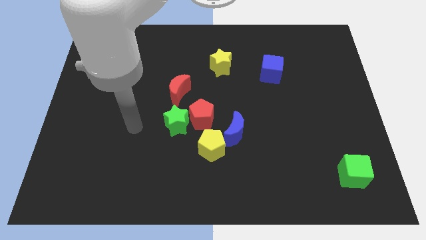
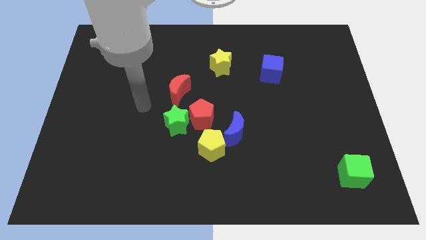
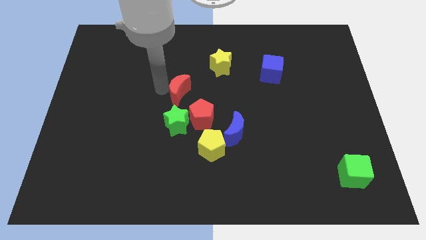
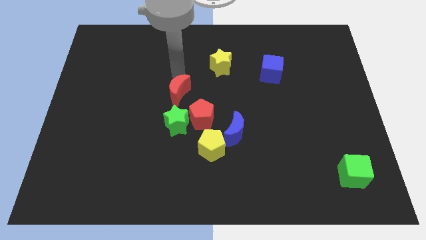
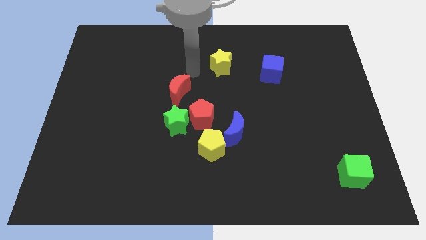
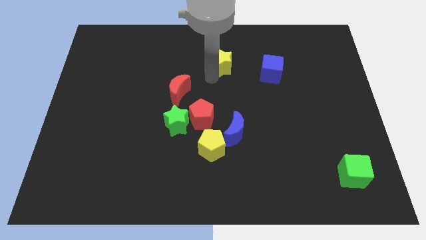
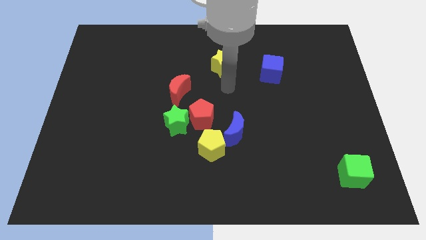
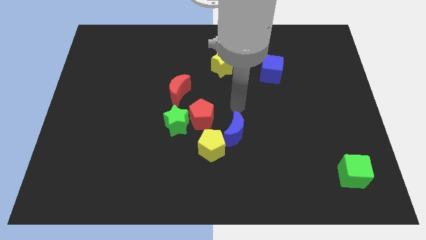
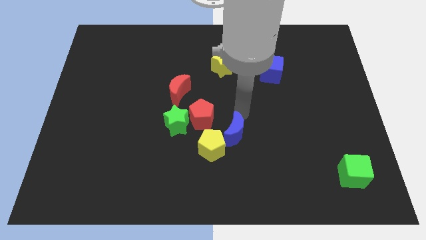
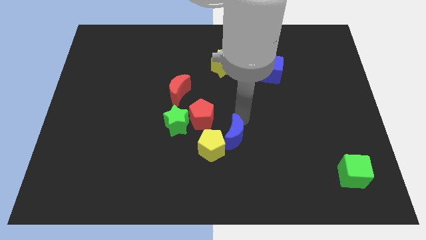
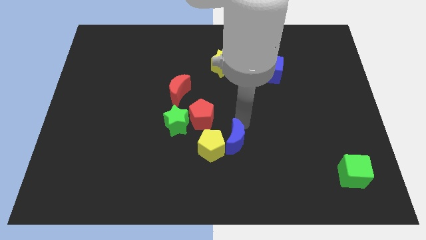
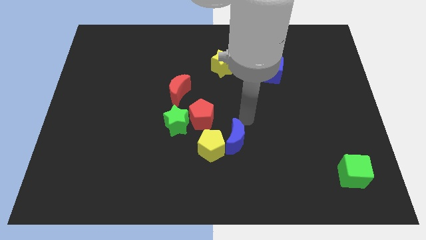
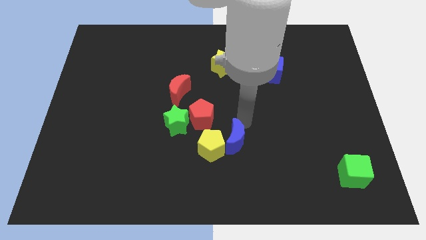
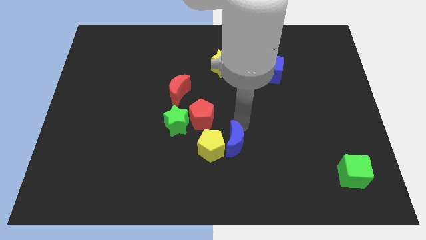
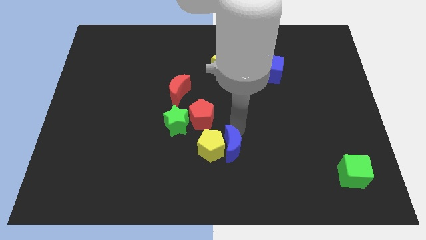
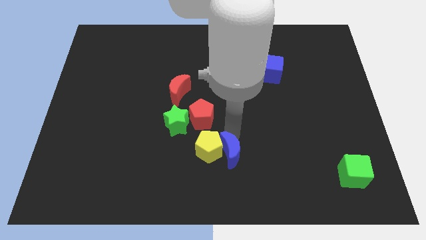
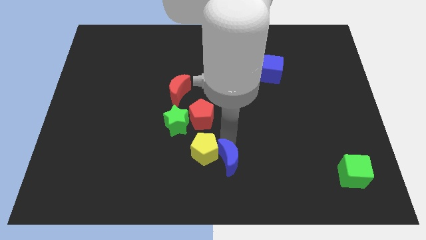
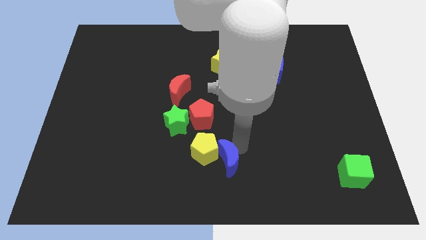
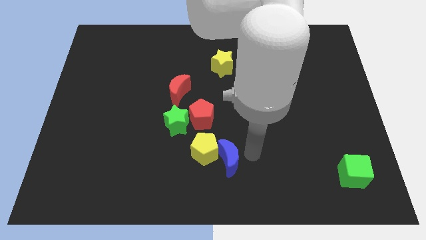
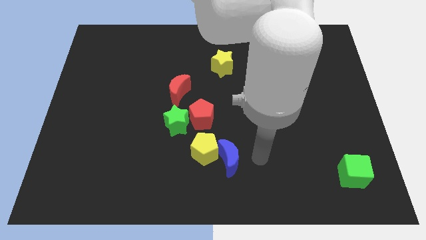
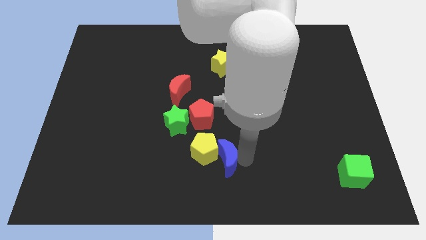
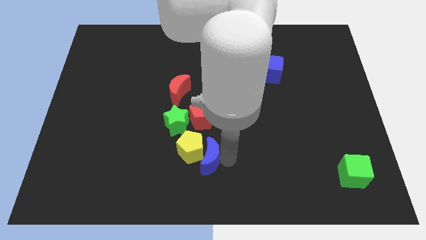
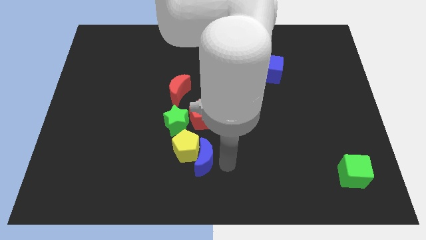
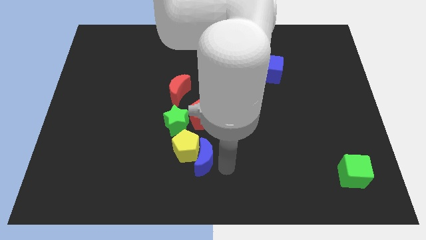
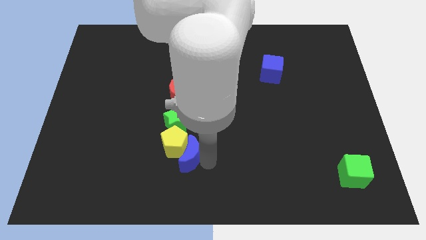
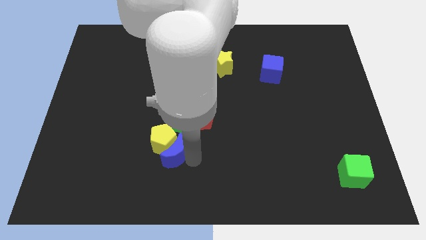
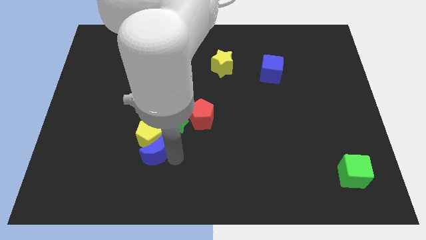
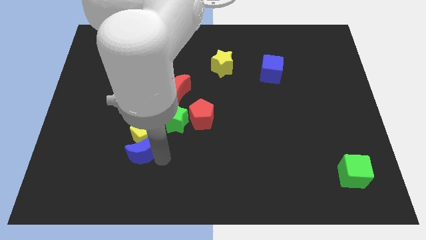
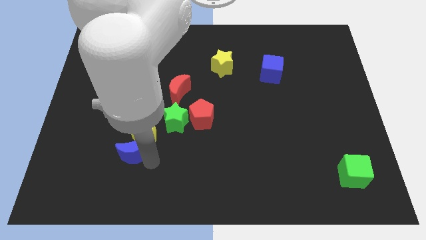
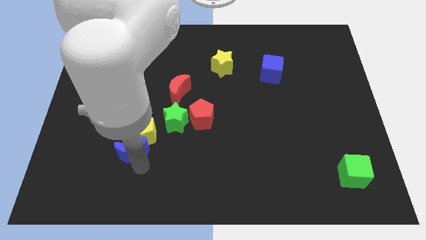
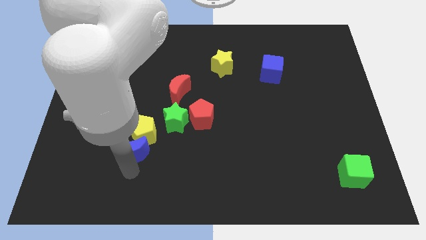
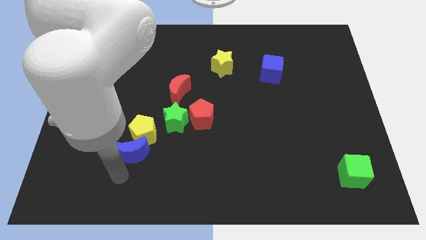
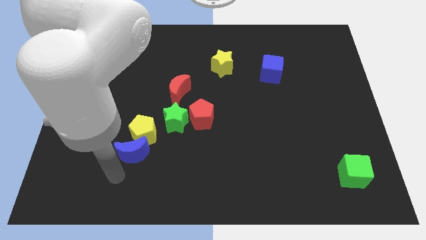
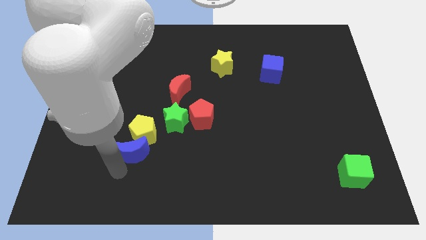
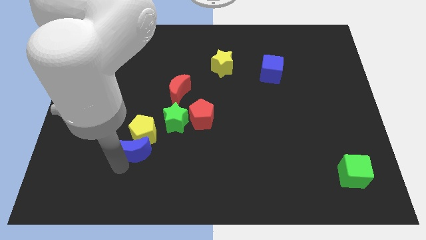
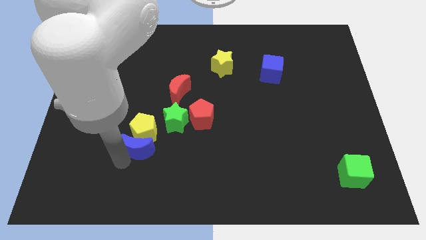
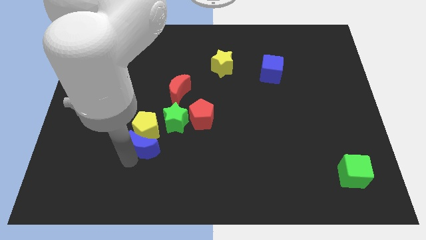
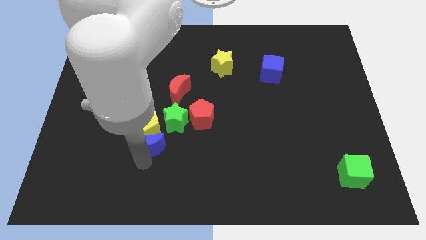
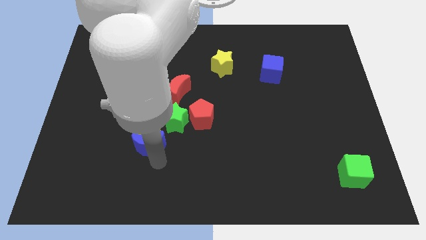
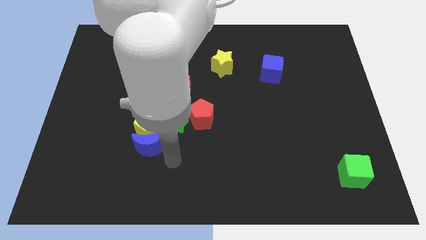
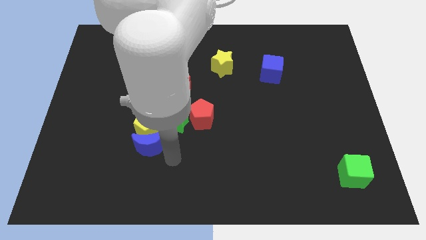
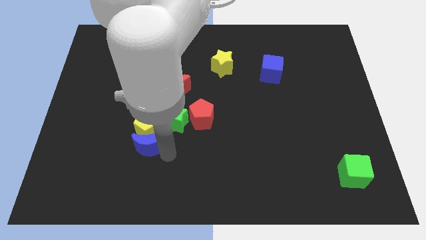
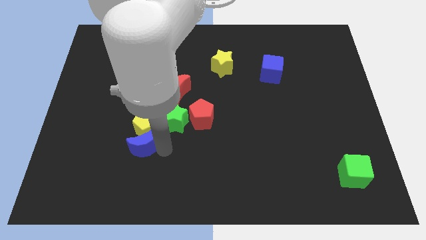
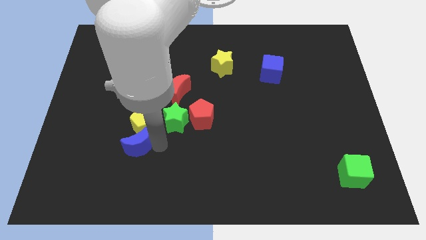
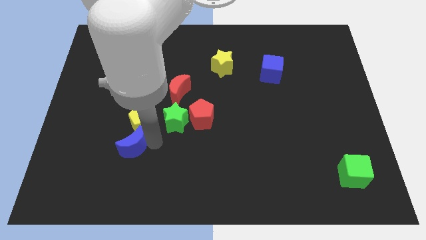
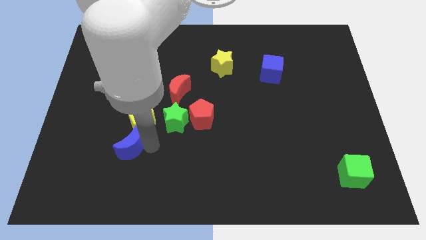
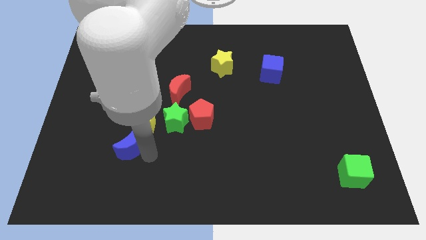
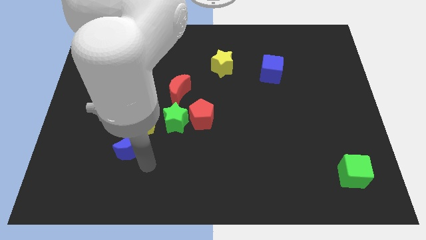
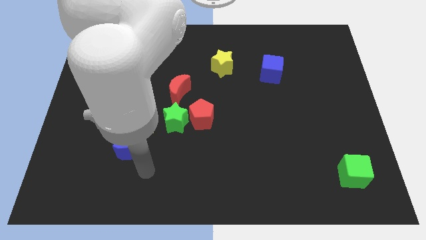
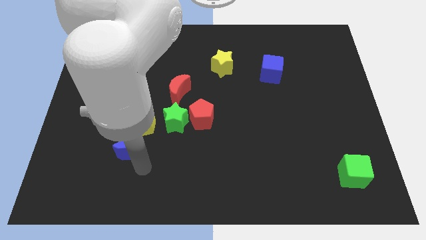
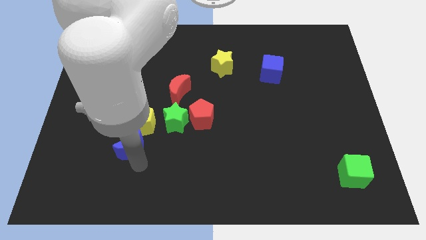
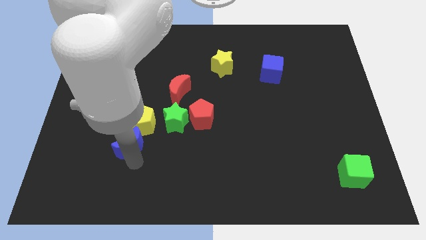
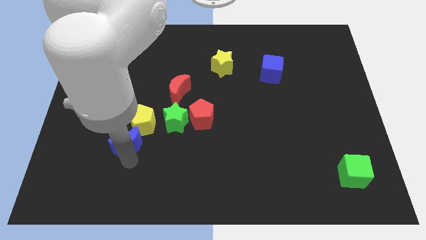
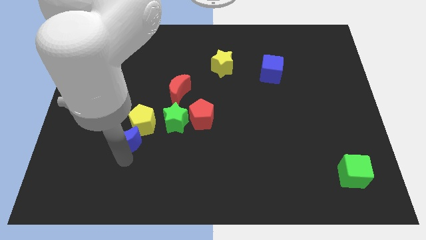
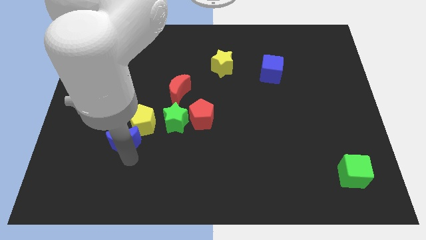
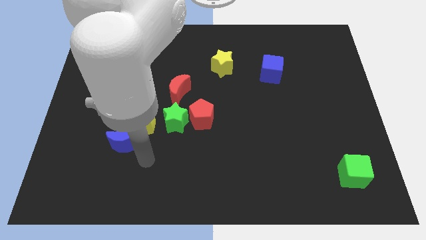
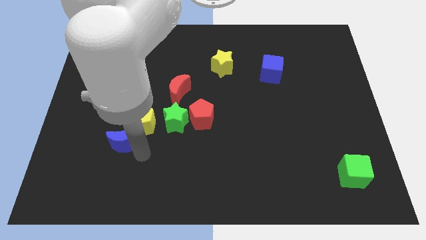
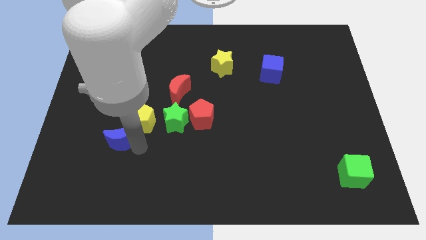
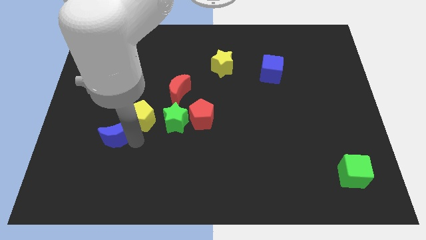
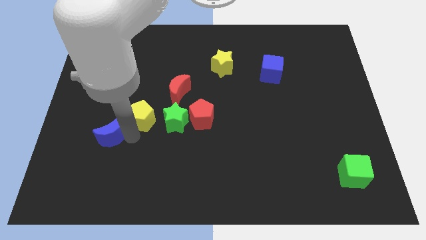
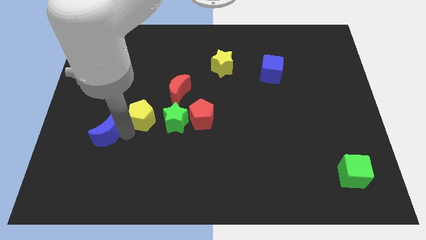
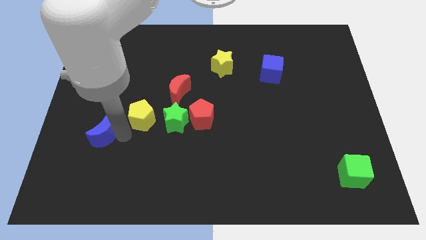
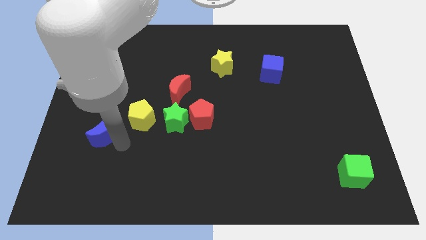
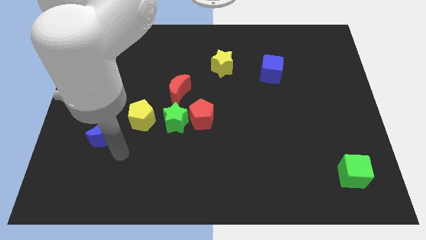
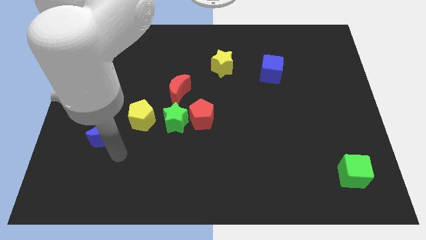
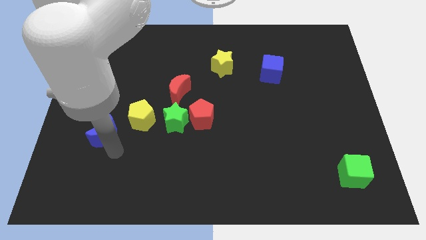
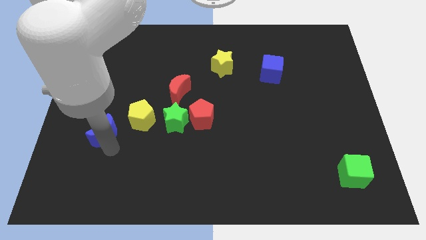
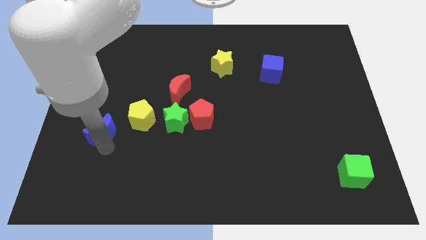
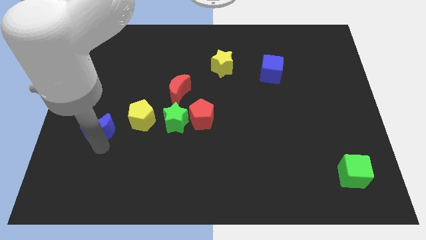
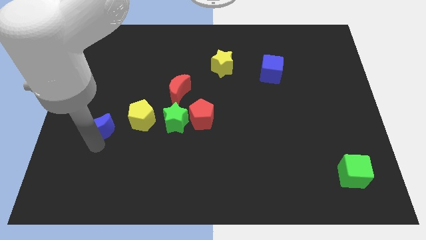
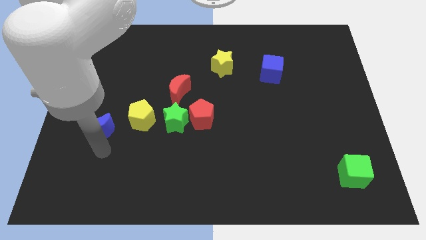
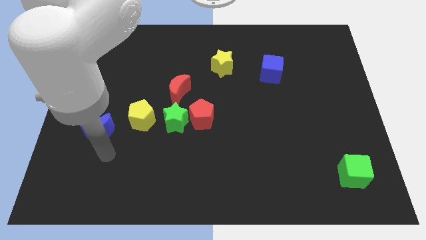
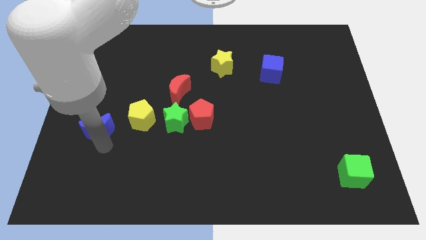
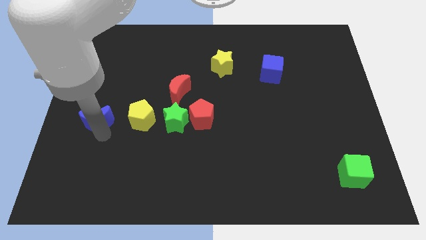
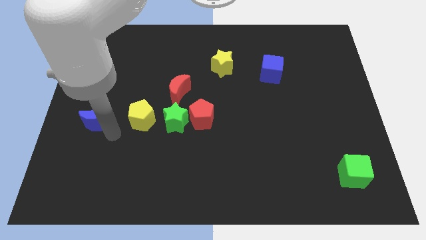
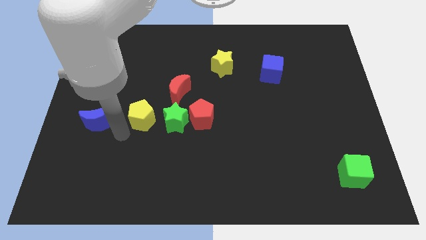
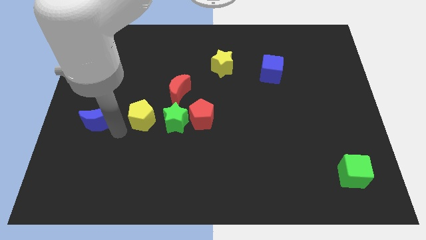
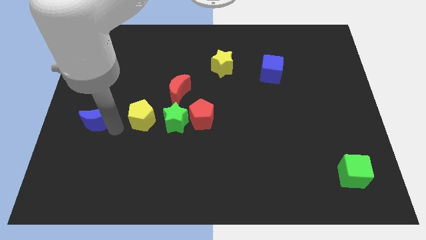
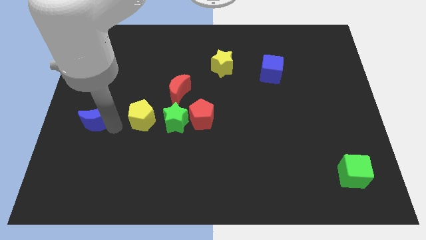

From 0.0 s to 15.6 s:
slide the blue moon to the left side
